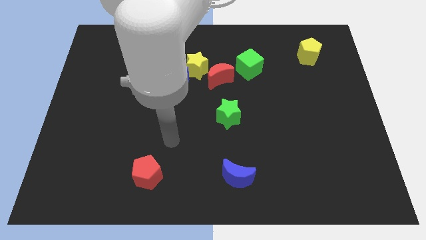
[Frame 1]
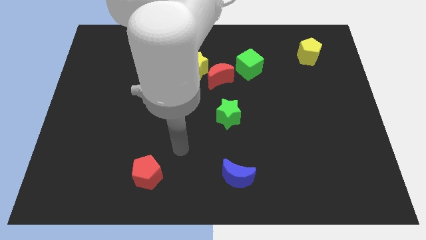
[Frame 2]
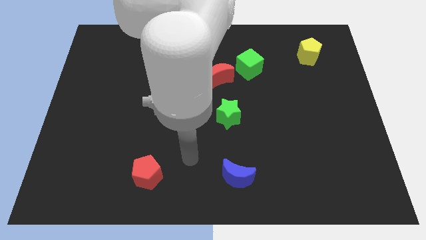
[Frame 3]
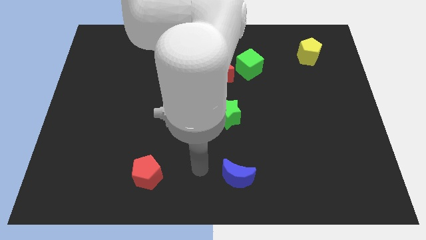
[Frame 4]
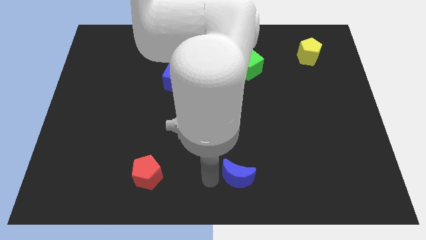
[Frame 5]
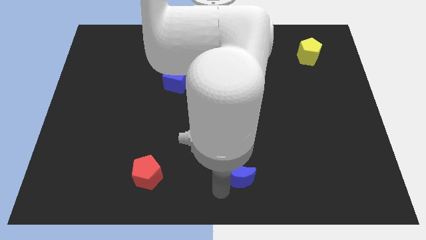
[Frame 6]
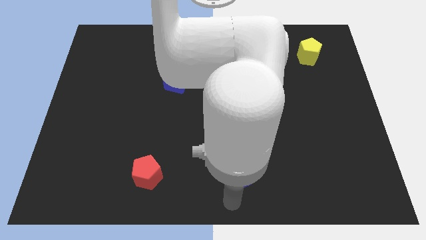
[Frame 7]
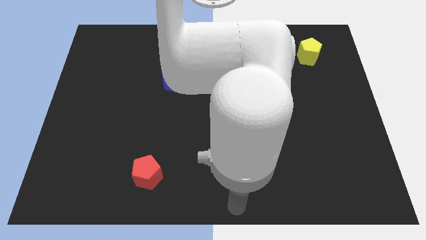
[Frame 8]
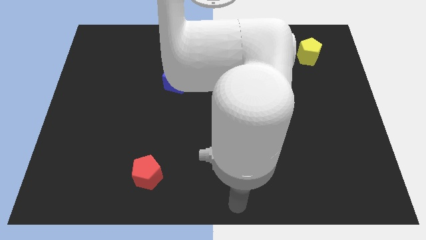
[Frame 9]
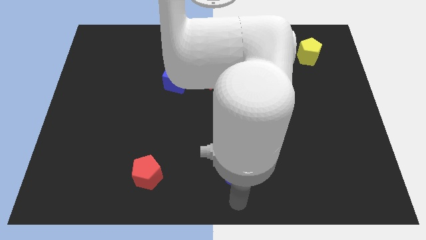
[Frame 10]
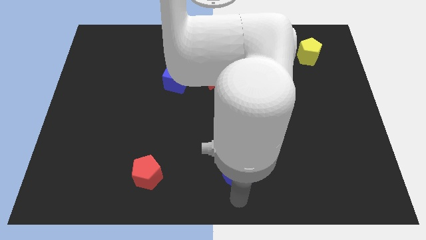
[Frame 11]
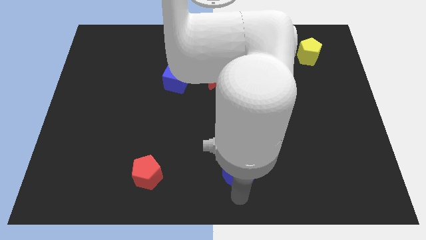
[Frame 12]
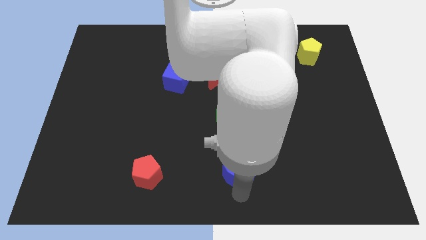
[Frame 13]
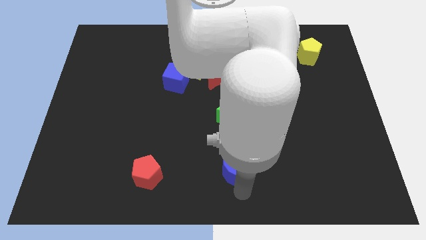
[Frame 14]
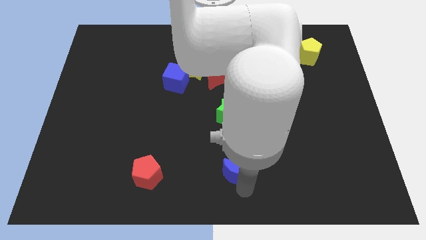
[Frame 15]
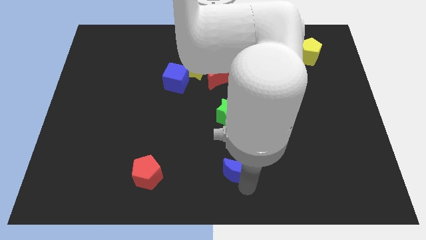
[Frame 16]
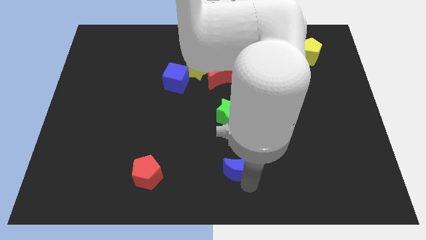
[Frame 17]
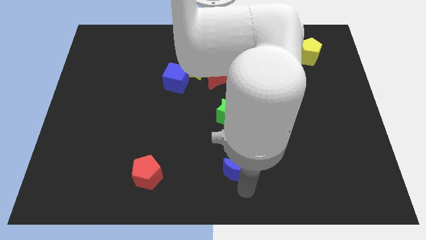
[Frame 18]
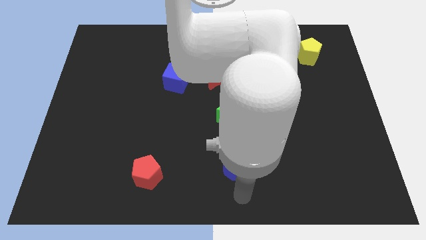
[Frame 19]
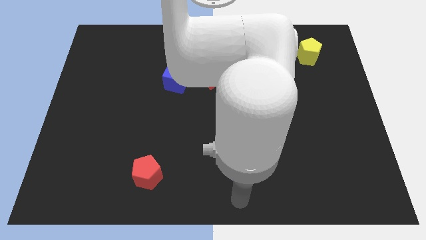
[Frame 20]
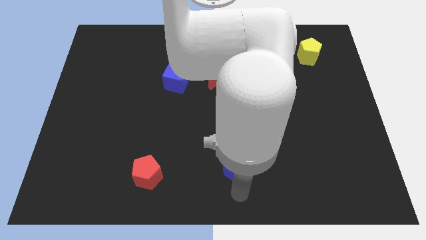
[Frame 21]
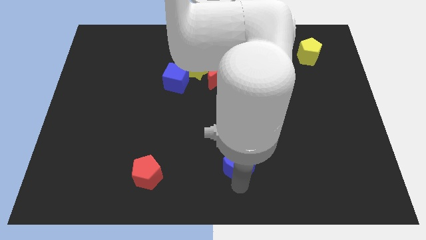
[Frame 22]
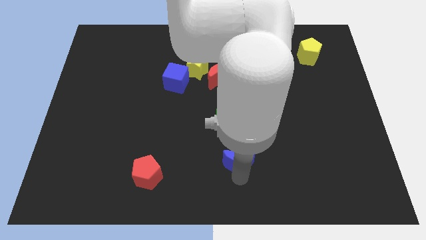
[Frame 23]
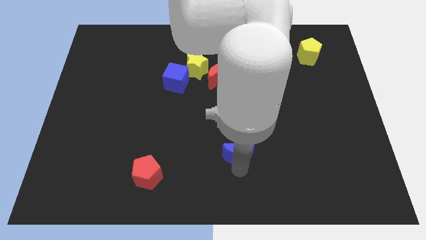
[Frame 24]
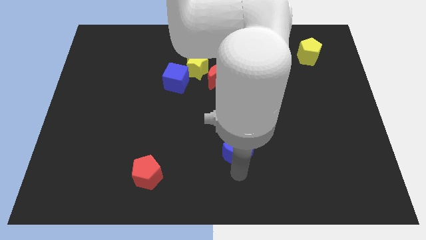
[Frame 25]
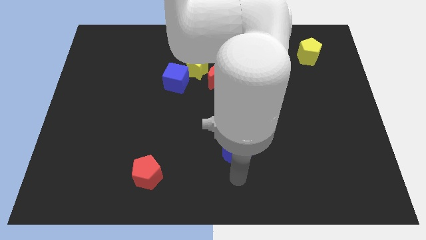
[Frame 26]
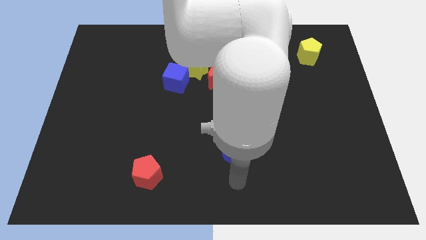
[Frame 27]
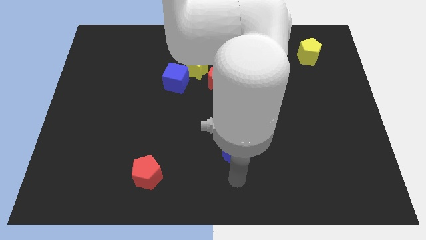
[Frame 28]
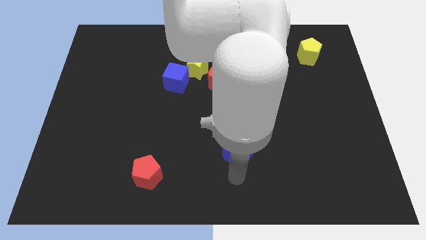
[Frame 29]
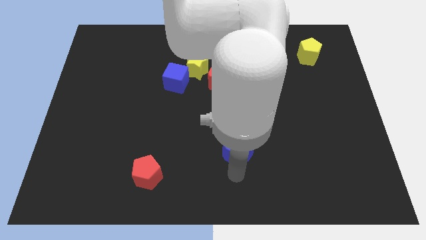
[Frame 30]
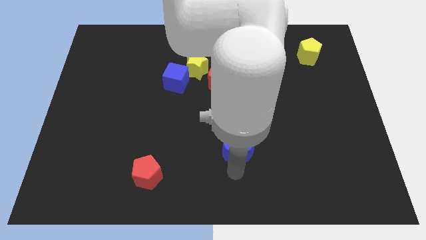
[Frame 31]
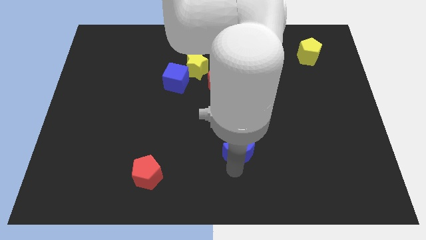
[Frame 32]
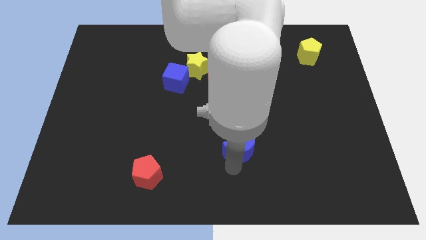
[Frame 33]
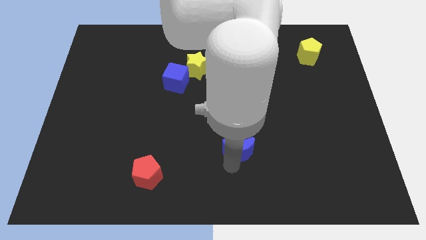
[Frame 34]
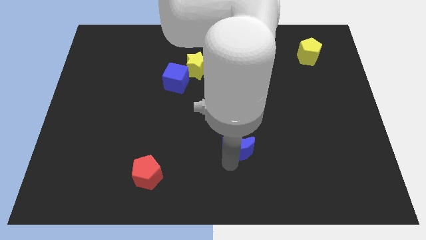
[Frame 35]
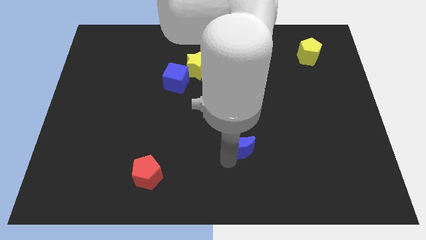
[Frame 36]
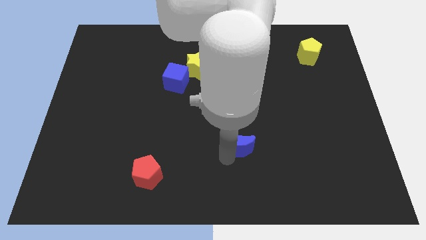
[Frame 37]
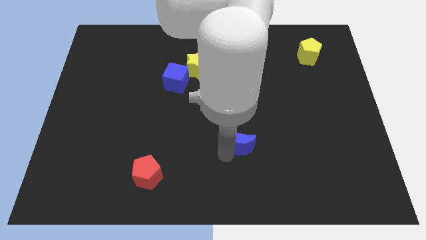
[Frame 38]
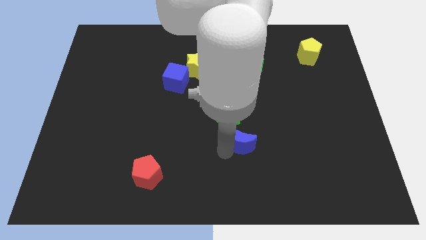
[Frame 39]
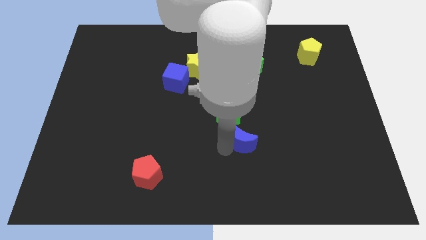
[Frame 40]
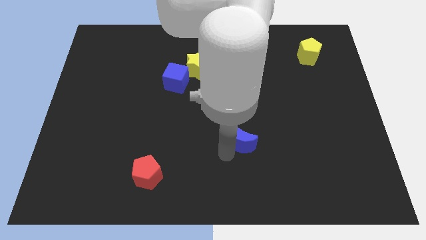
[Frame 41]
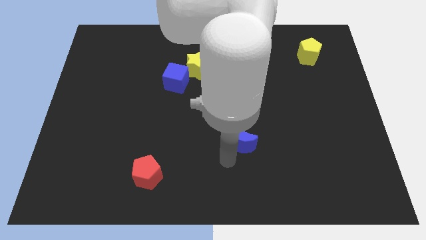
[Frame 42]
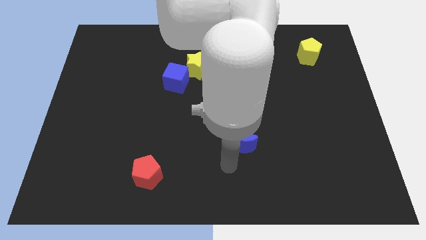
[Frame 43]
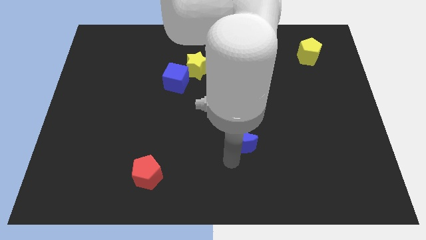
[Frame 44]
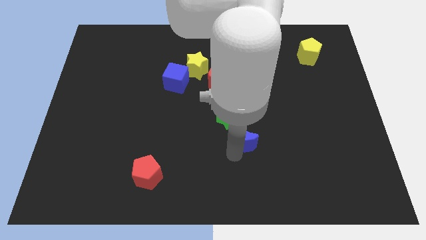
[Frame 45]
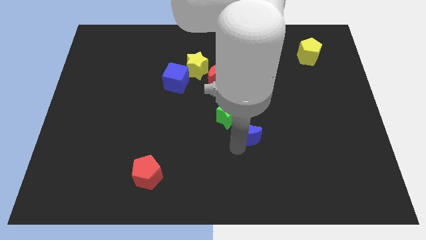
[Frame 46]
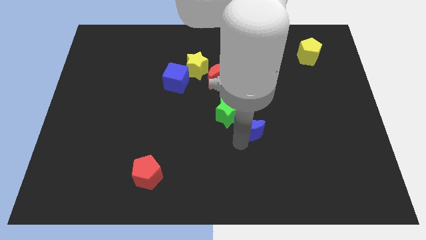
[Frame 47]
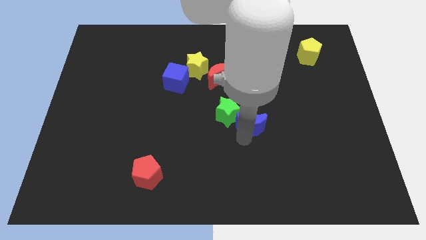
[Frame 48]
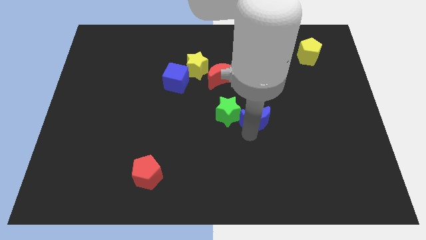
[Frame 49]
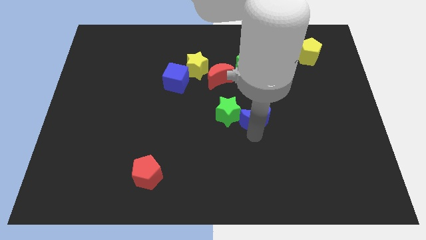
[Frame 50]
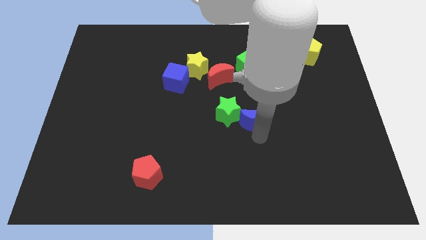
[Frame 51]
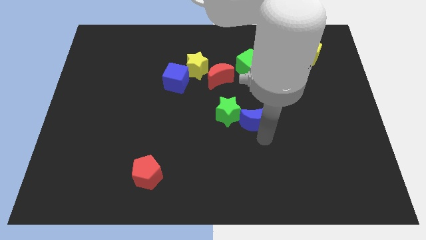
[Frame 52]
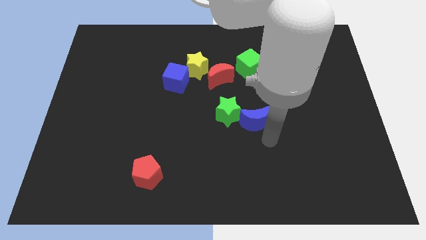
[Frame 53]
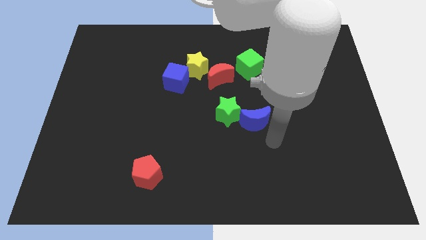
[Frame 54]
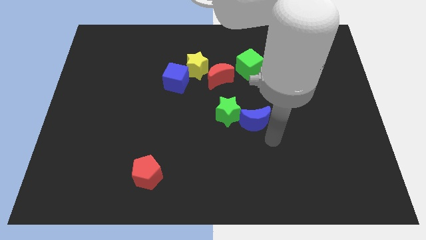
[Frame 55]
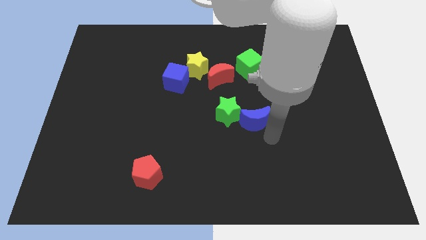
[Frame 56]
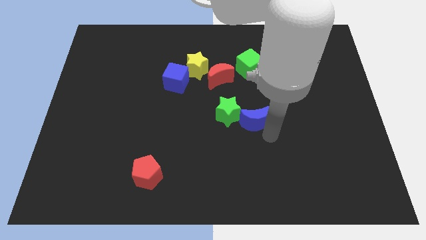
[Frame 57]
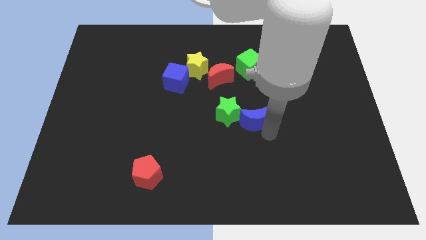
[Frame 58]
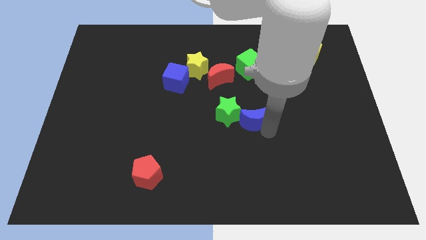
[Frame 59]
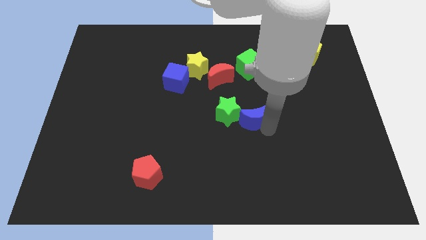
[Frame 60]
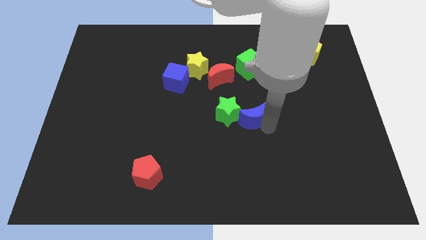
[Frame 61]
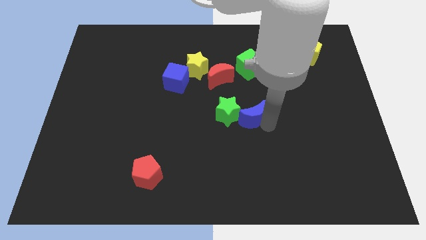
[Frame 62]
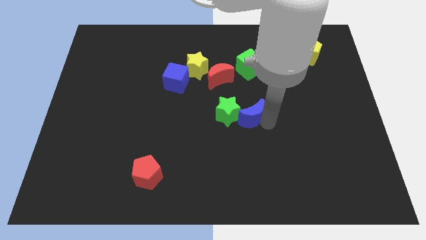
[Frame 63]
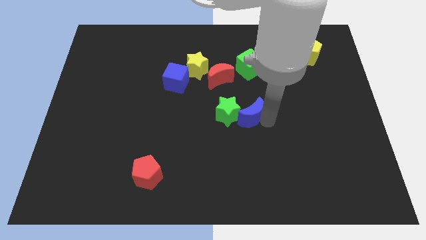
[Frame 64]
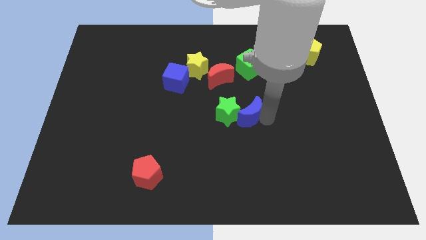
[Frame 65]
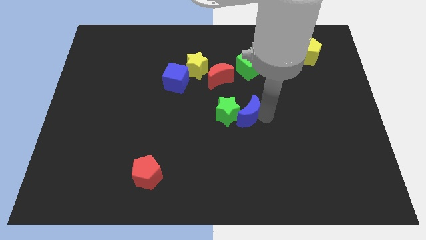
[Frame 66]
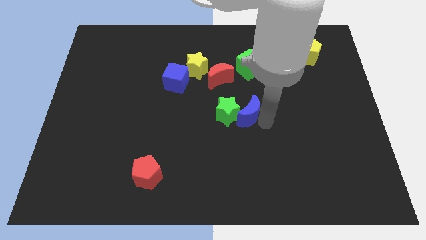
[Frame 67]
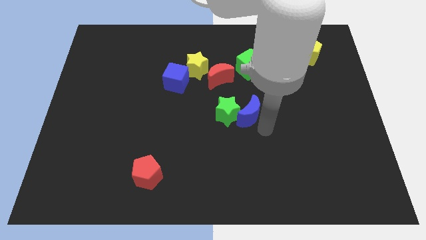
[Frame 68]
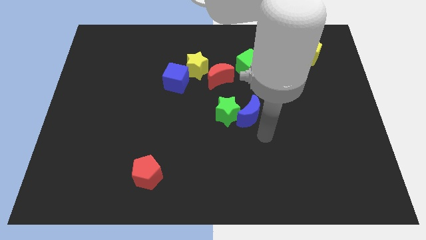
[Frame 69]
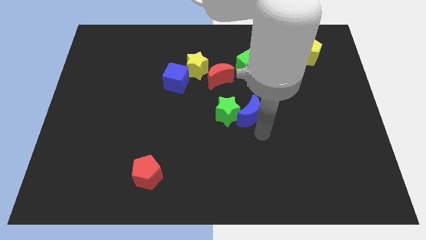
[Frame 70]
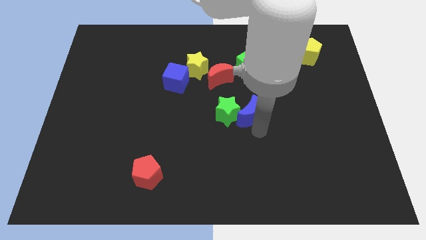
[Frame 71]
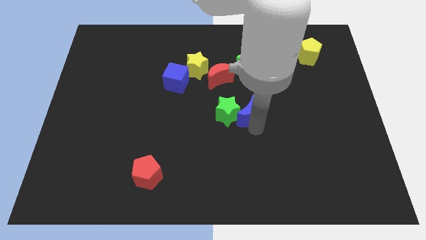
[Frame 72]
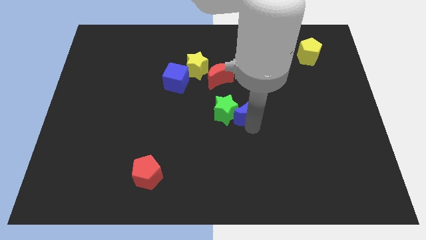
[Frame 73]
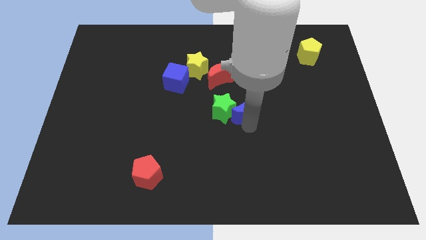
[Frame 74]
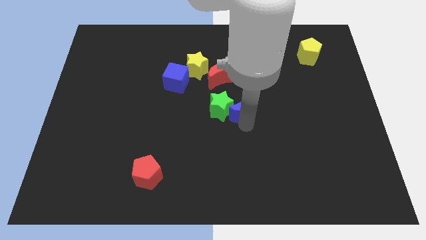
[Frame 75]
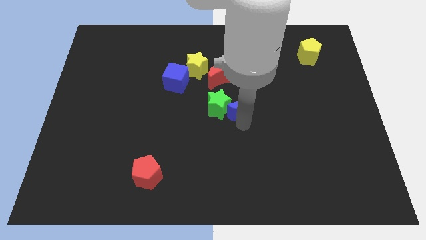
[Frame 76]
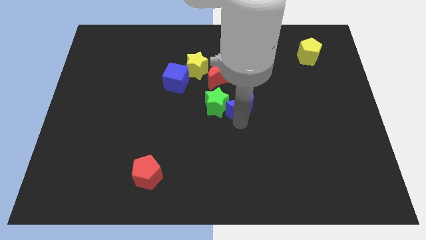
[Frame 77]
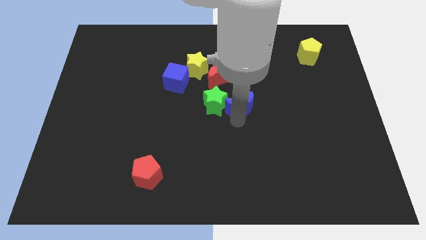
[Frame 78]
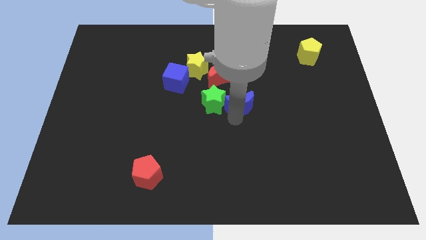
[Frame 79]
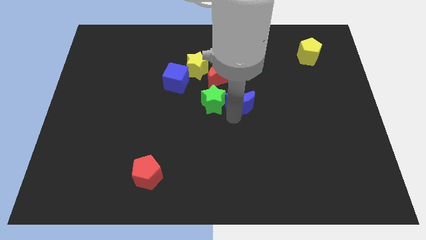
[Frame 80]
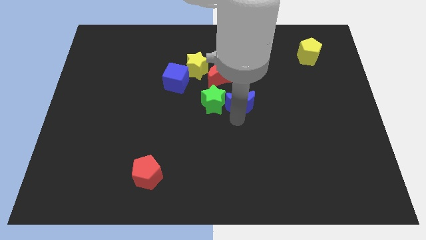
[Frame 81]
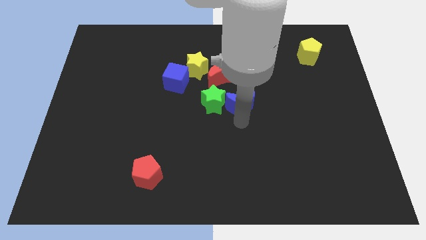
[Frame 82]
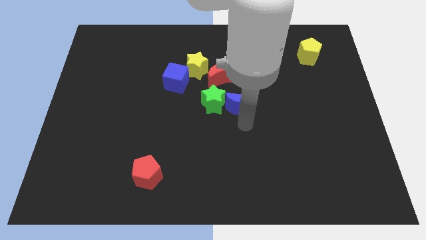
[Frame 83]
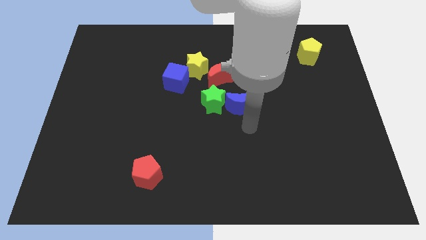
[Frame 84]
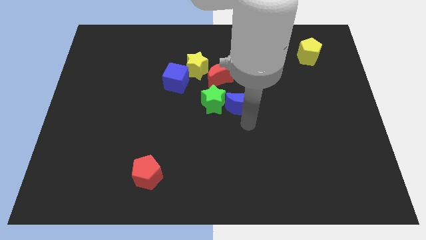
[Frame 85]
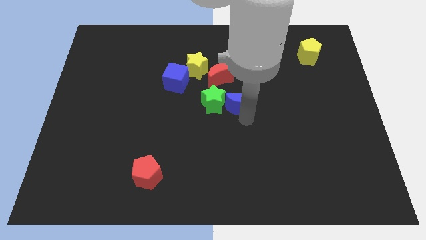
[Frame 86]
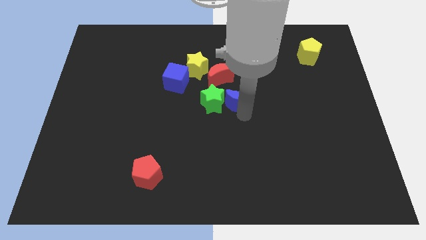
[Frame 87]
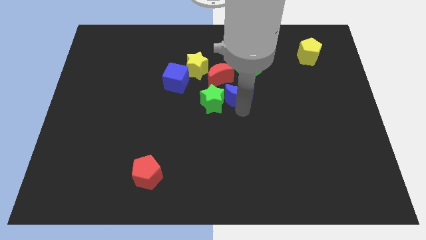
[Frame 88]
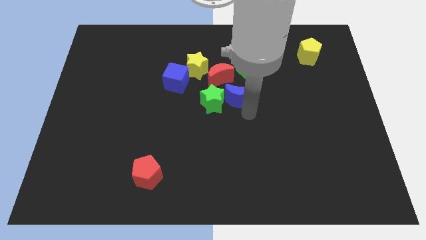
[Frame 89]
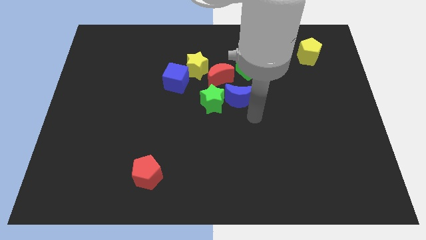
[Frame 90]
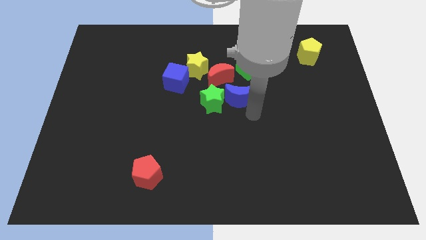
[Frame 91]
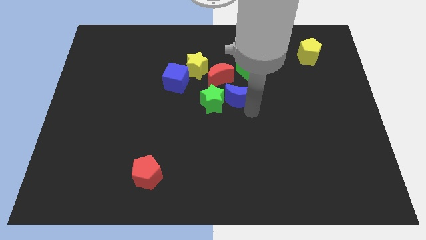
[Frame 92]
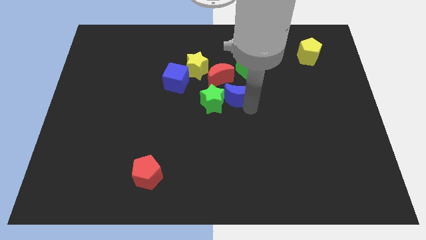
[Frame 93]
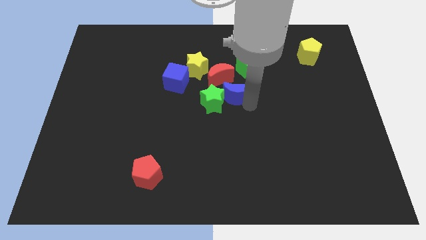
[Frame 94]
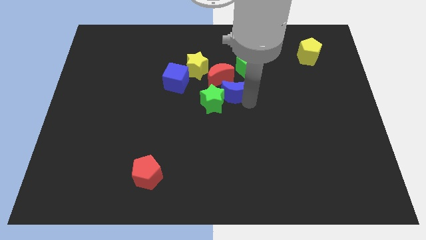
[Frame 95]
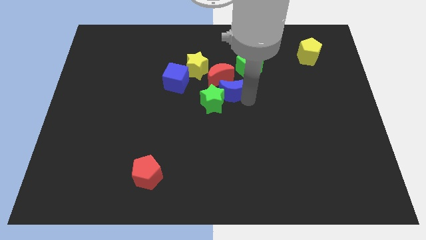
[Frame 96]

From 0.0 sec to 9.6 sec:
push the blue moon towards the red moon
